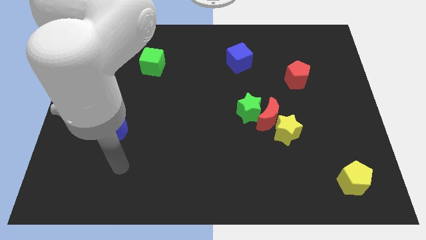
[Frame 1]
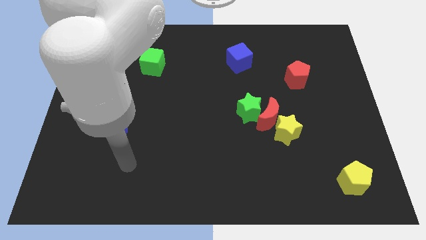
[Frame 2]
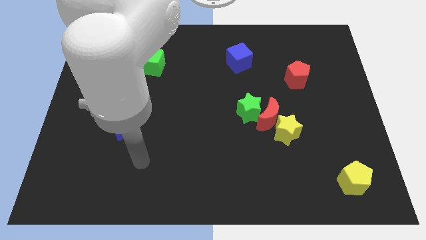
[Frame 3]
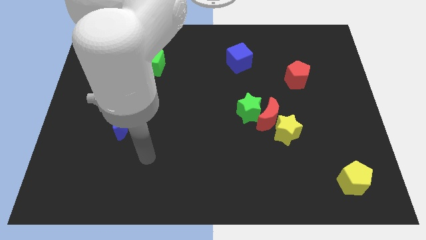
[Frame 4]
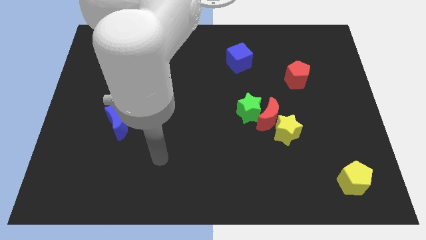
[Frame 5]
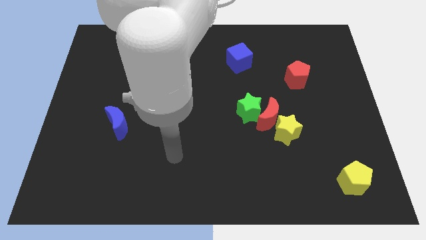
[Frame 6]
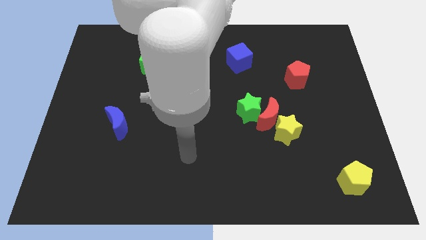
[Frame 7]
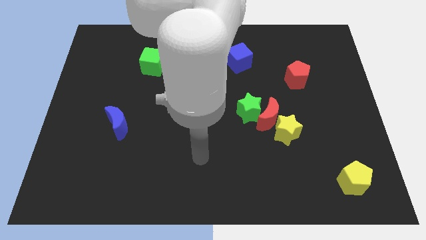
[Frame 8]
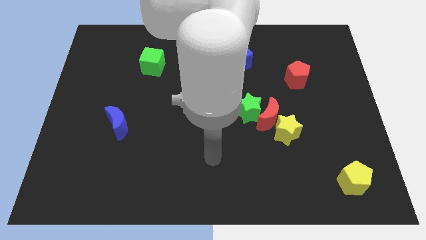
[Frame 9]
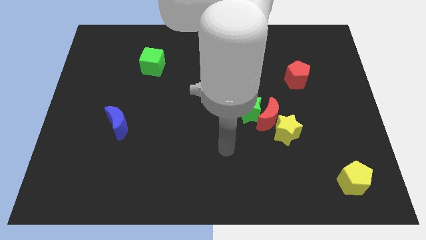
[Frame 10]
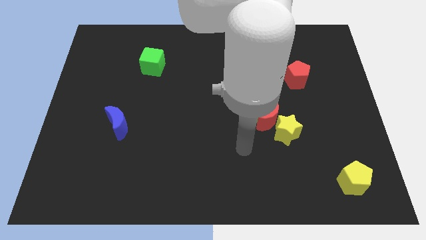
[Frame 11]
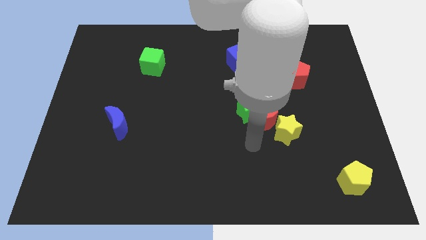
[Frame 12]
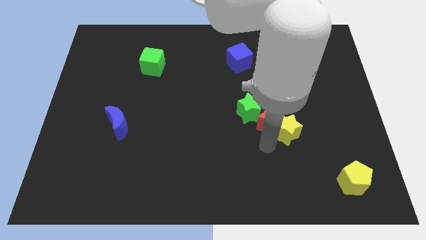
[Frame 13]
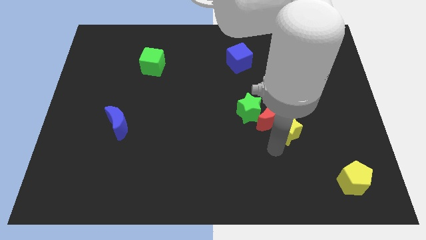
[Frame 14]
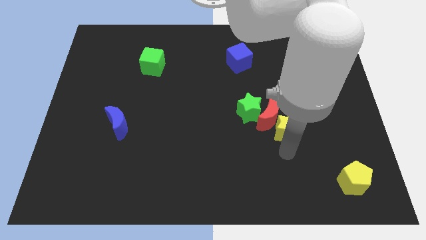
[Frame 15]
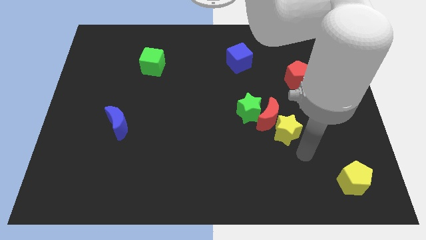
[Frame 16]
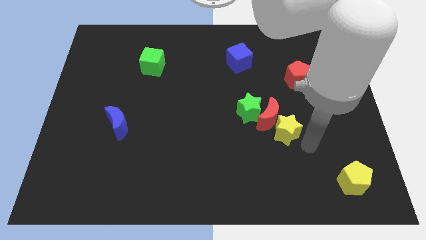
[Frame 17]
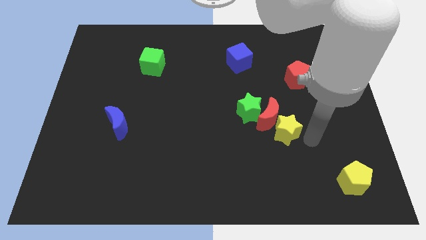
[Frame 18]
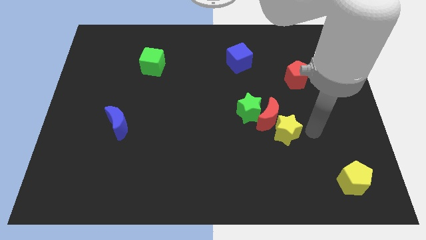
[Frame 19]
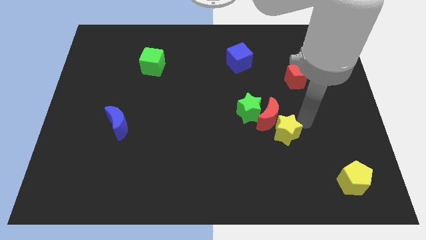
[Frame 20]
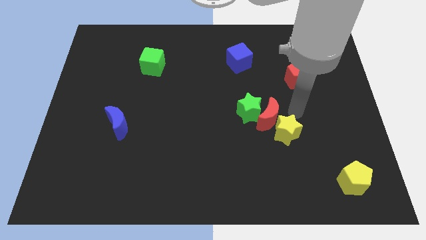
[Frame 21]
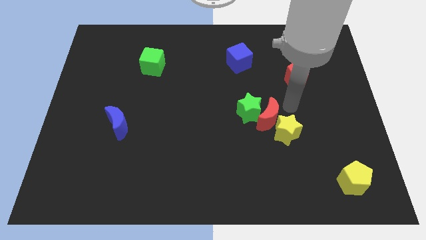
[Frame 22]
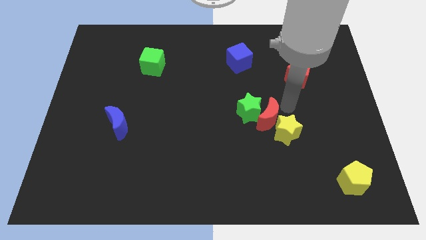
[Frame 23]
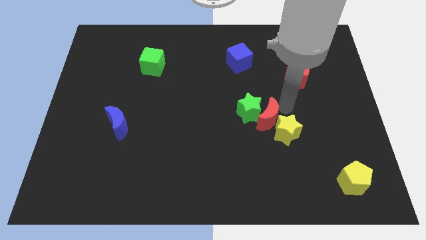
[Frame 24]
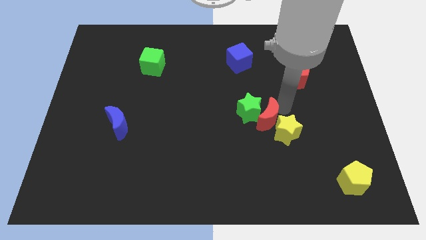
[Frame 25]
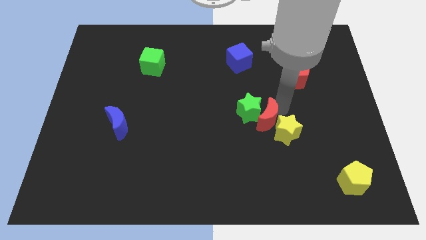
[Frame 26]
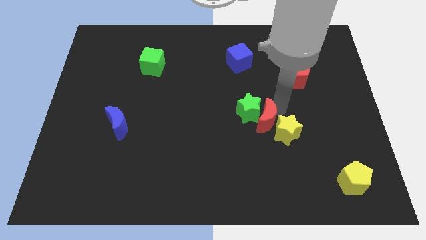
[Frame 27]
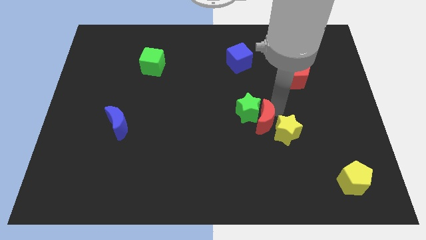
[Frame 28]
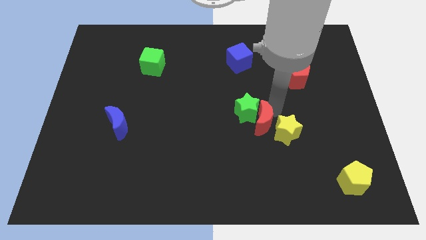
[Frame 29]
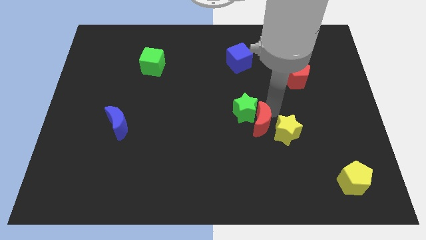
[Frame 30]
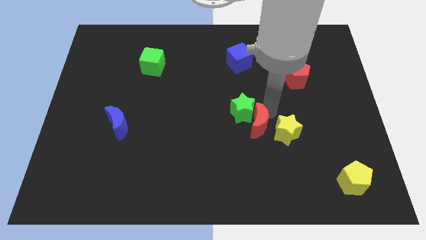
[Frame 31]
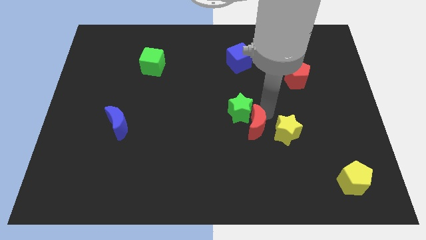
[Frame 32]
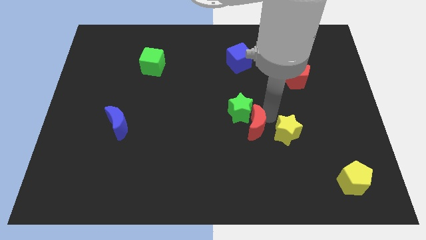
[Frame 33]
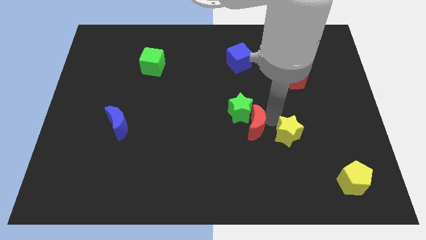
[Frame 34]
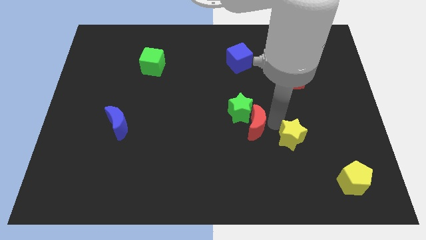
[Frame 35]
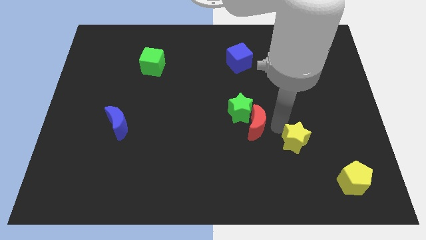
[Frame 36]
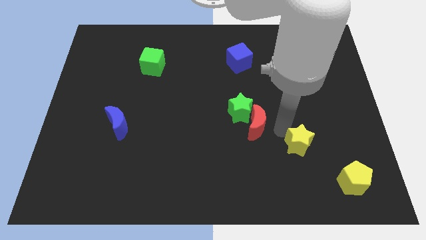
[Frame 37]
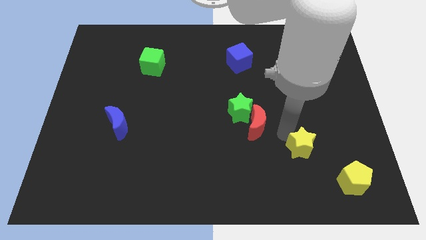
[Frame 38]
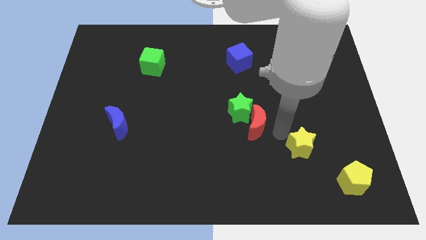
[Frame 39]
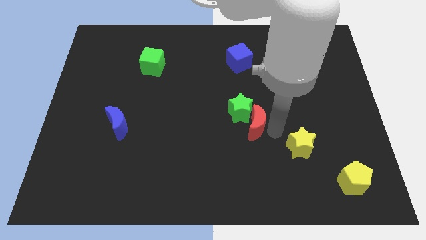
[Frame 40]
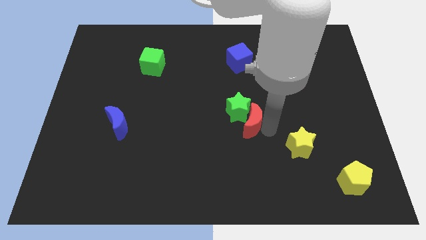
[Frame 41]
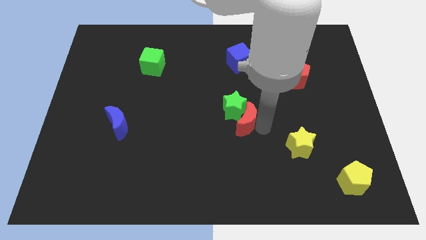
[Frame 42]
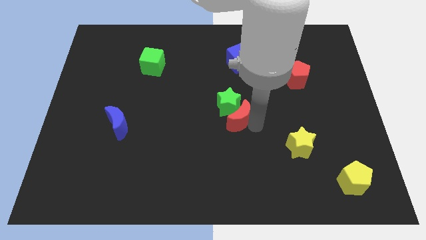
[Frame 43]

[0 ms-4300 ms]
slide the red moon left a little

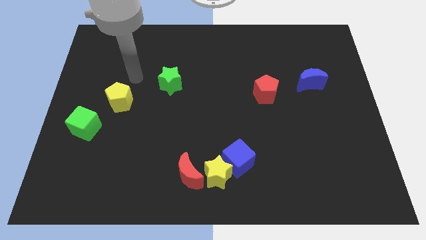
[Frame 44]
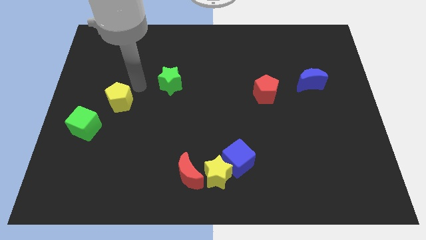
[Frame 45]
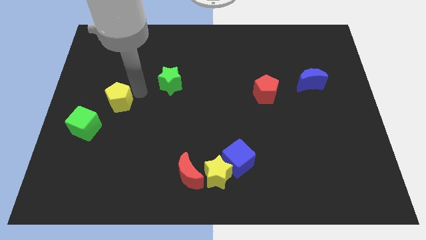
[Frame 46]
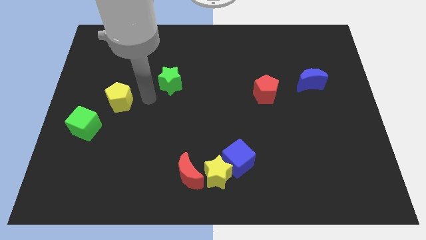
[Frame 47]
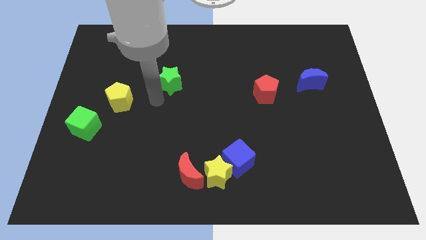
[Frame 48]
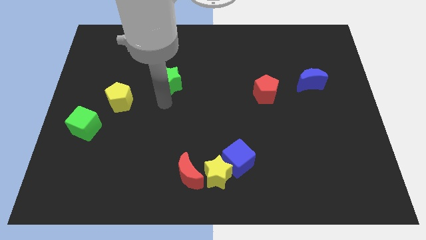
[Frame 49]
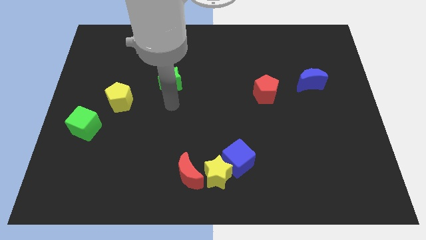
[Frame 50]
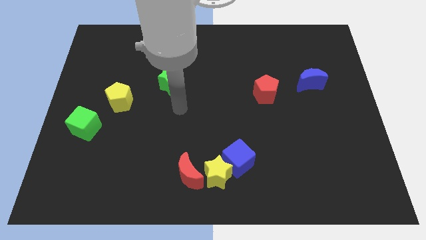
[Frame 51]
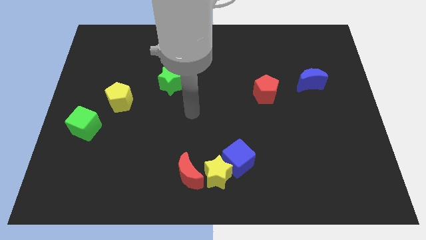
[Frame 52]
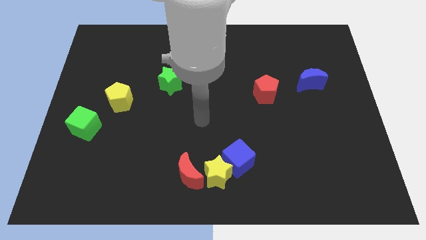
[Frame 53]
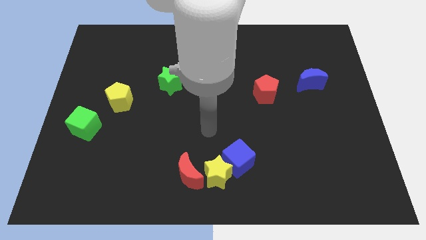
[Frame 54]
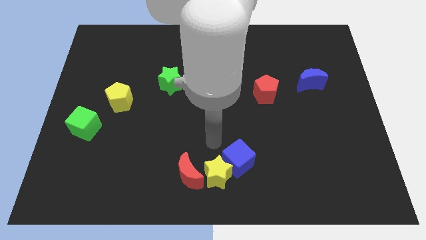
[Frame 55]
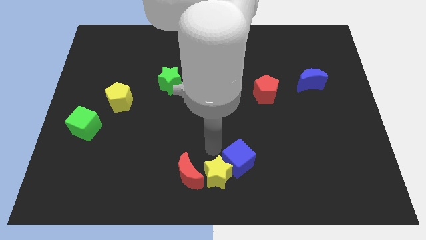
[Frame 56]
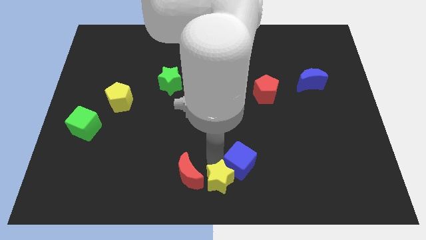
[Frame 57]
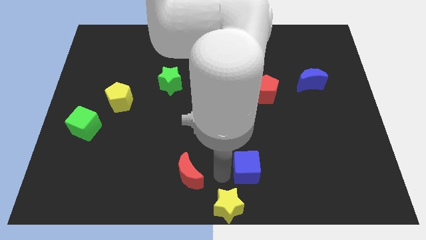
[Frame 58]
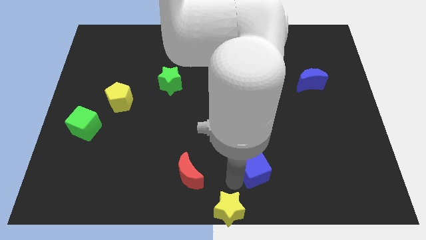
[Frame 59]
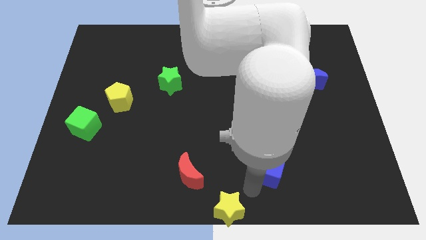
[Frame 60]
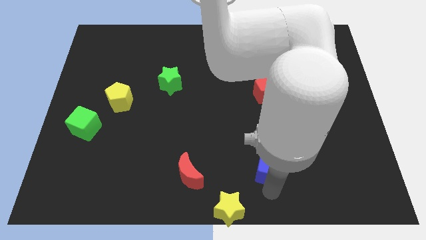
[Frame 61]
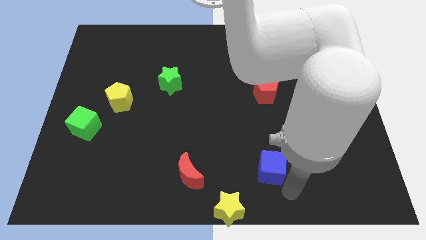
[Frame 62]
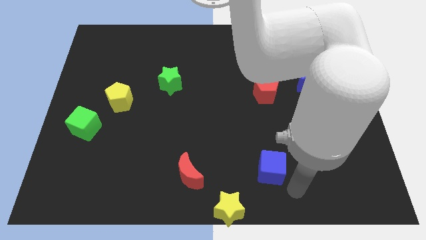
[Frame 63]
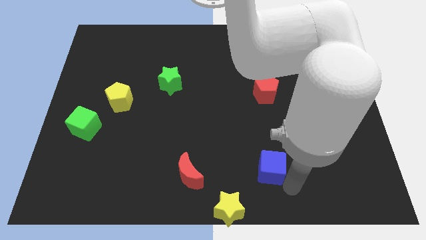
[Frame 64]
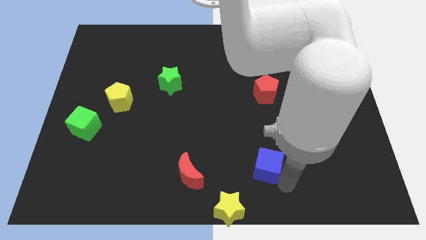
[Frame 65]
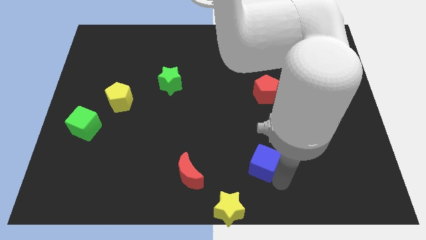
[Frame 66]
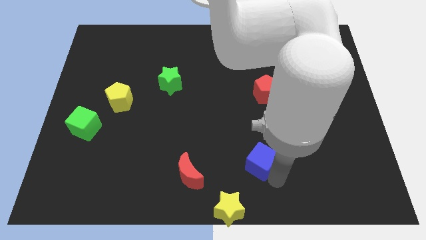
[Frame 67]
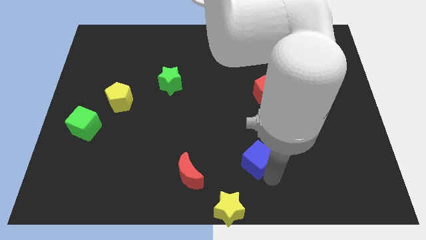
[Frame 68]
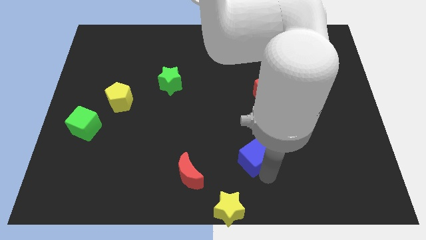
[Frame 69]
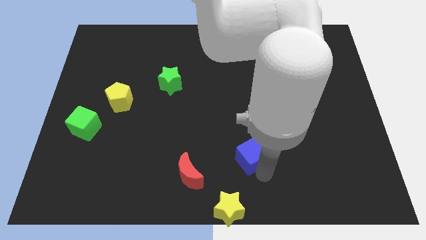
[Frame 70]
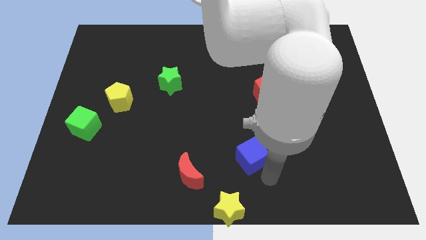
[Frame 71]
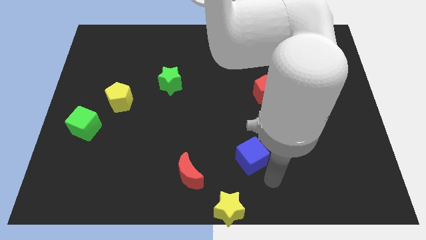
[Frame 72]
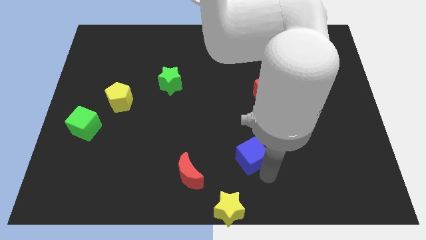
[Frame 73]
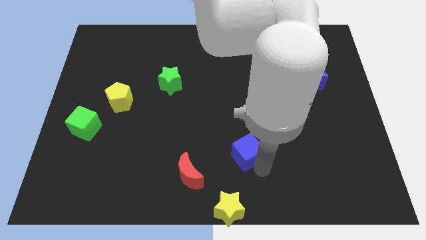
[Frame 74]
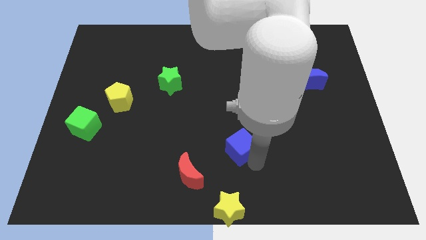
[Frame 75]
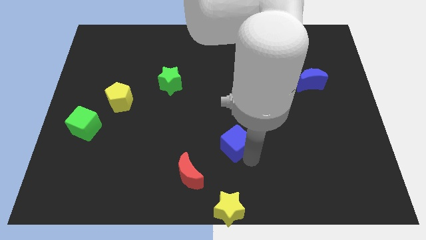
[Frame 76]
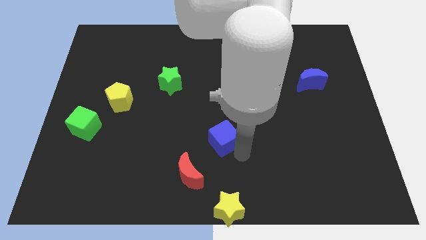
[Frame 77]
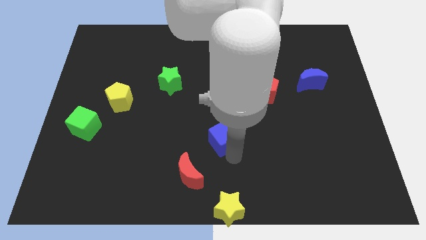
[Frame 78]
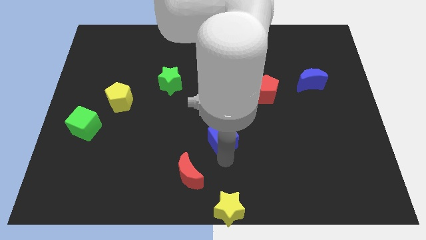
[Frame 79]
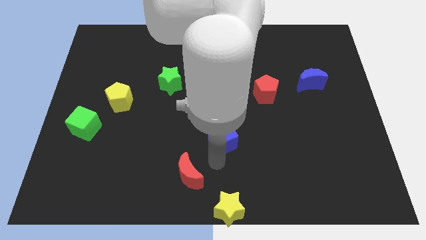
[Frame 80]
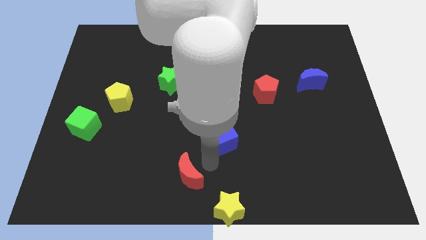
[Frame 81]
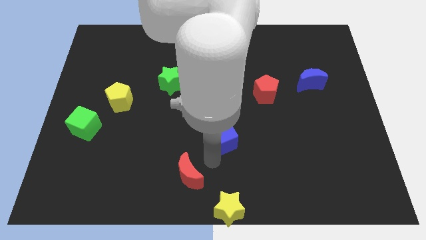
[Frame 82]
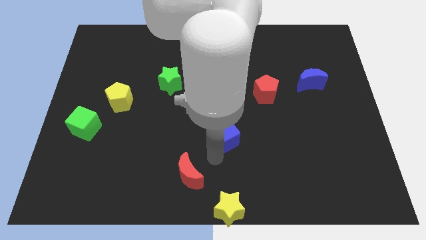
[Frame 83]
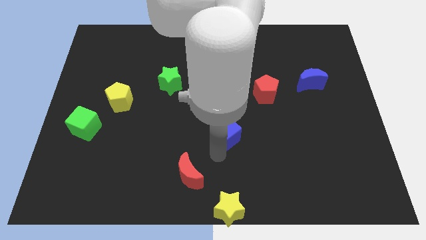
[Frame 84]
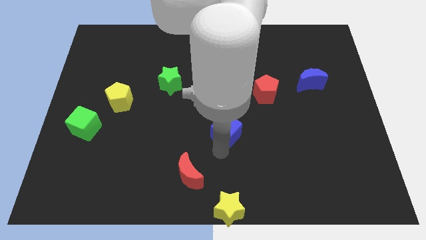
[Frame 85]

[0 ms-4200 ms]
slightly slide the blue cube upwards
